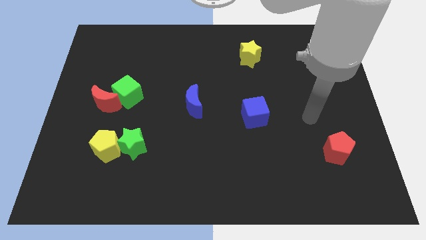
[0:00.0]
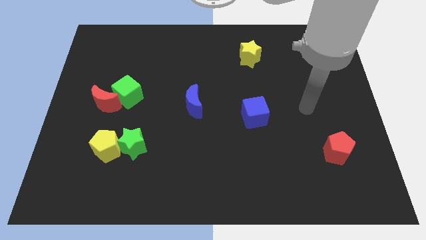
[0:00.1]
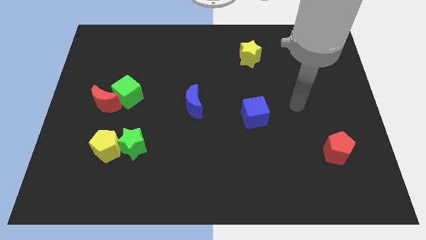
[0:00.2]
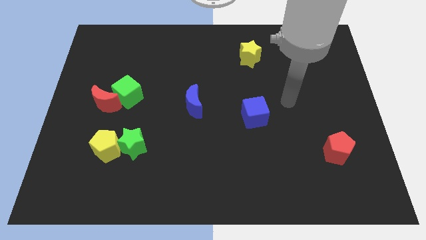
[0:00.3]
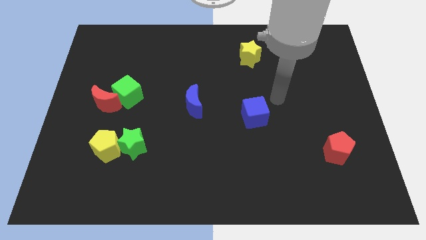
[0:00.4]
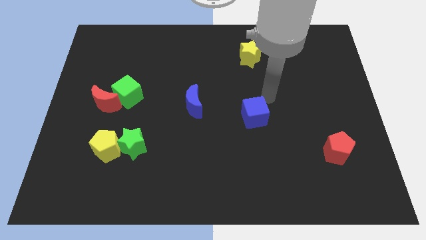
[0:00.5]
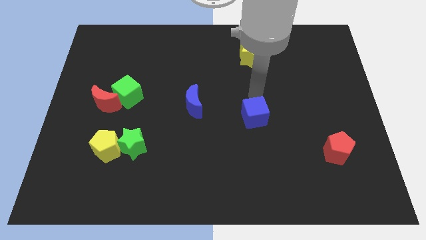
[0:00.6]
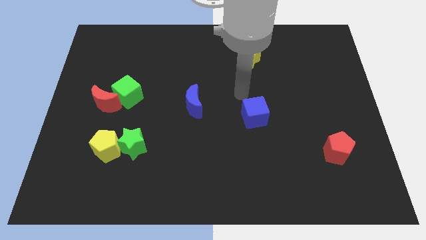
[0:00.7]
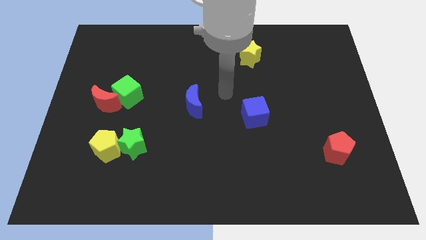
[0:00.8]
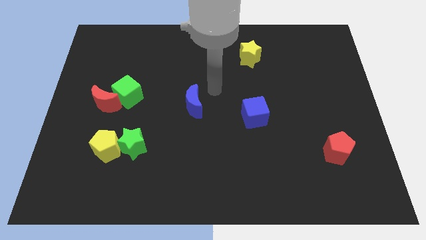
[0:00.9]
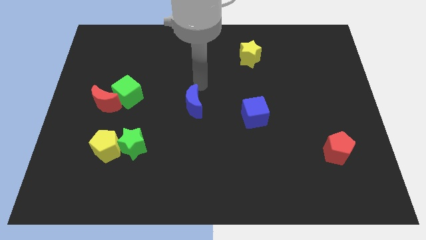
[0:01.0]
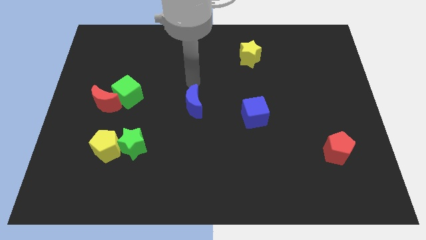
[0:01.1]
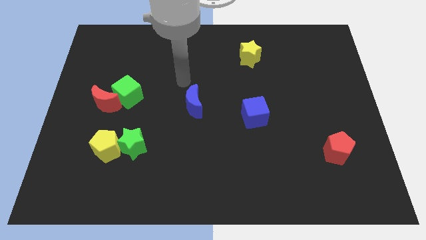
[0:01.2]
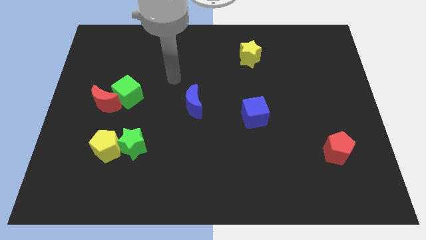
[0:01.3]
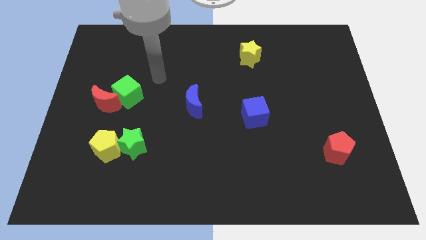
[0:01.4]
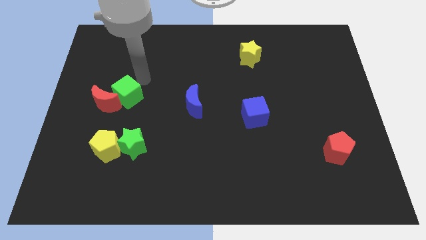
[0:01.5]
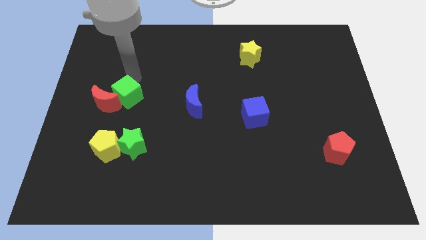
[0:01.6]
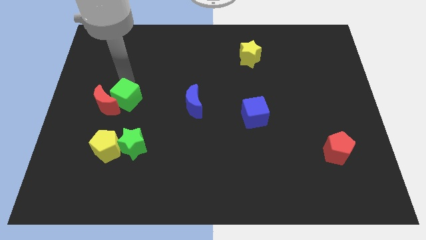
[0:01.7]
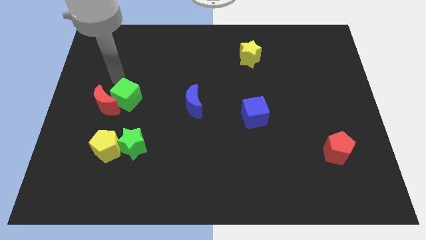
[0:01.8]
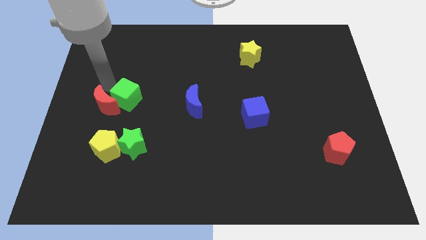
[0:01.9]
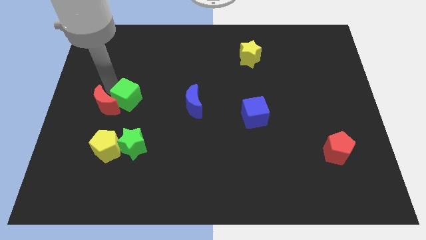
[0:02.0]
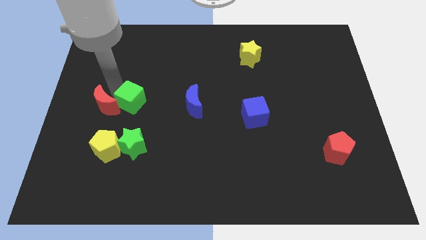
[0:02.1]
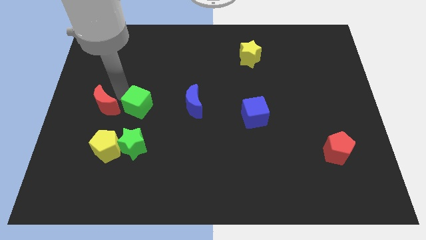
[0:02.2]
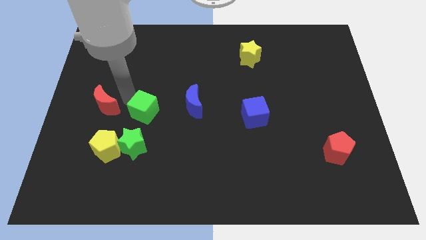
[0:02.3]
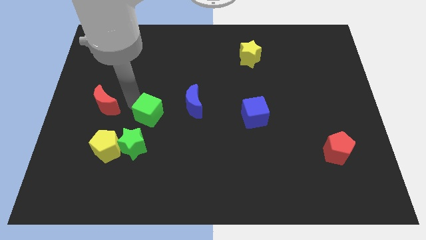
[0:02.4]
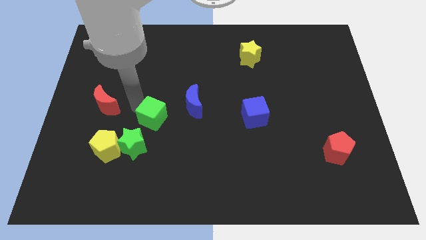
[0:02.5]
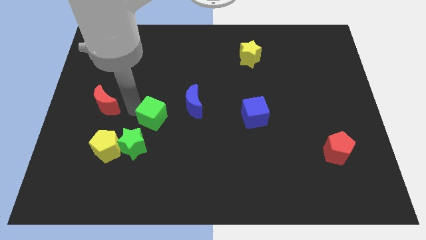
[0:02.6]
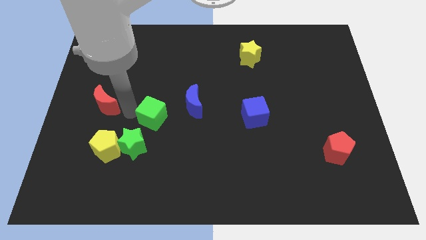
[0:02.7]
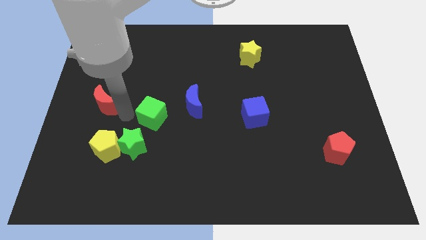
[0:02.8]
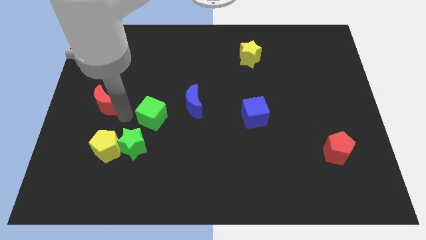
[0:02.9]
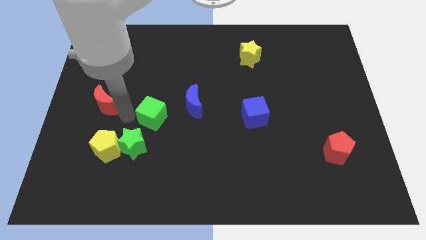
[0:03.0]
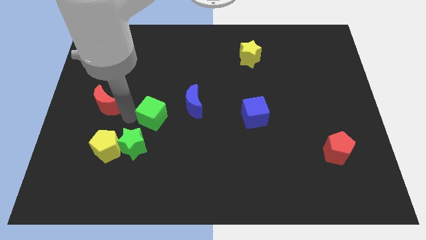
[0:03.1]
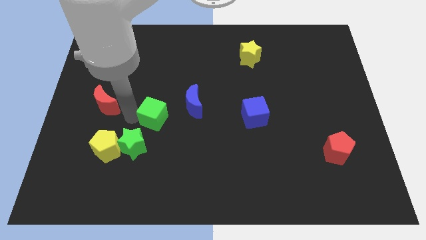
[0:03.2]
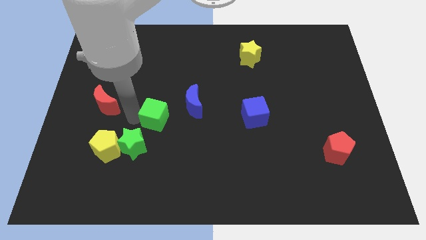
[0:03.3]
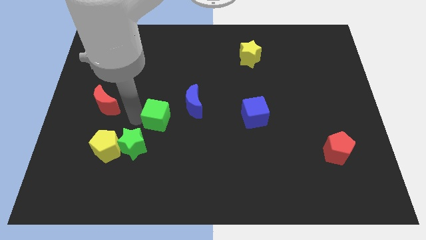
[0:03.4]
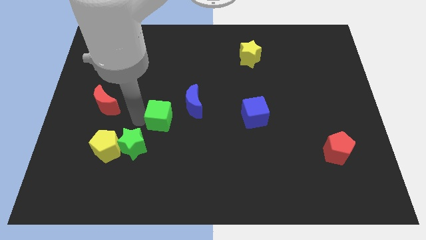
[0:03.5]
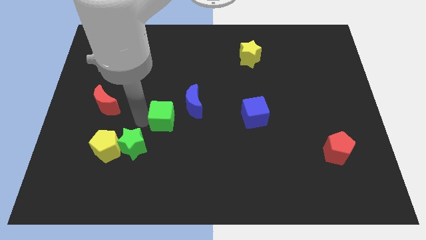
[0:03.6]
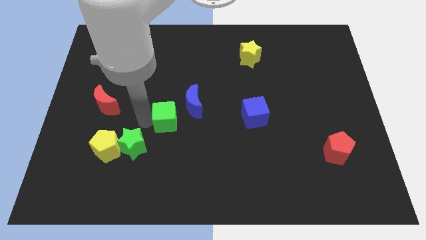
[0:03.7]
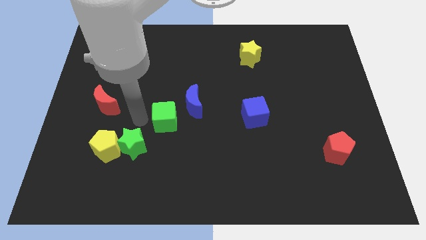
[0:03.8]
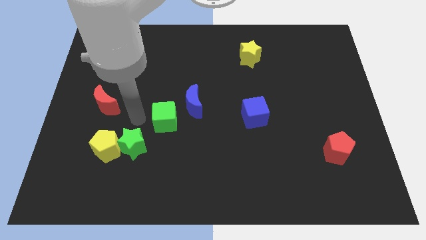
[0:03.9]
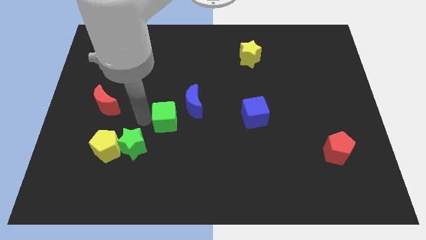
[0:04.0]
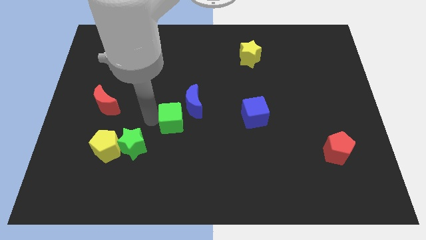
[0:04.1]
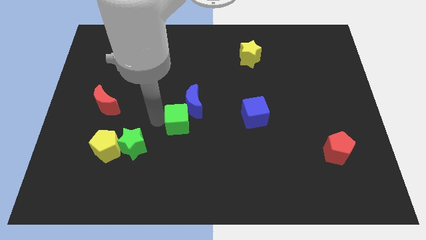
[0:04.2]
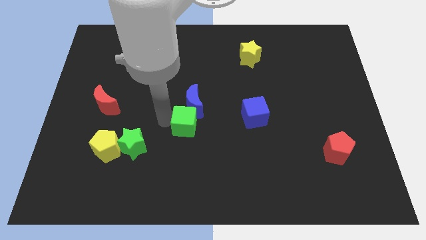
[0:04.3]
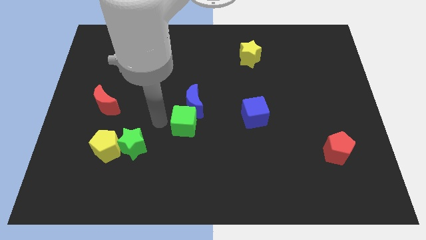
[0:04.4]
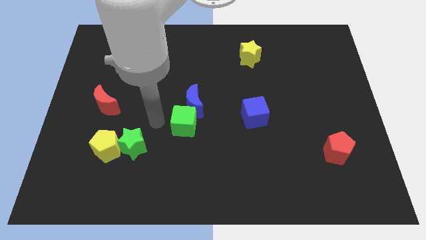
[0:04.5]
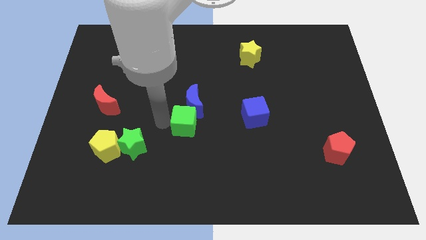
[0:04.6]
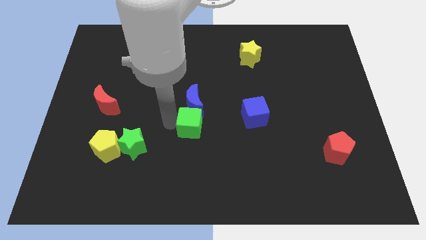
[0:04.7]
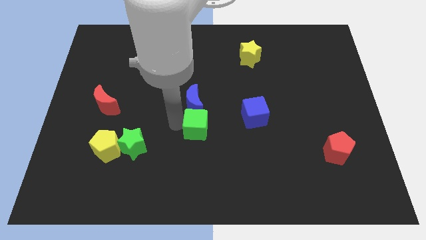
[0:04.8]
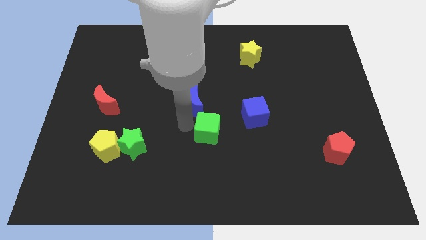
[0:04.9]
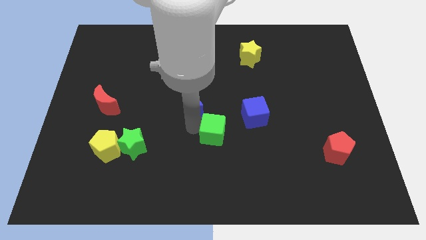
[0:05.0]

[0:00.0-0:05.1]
slide the green cube to the bottom left side of the blue cube

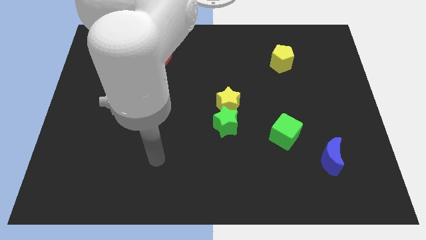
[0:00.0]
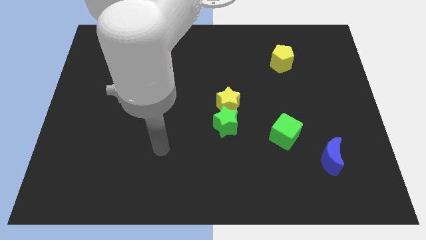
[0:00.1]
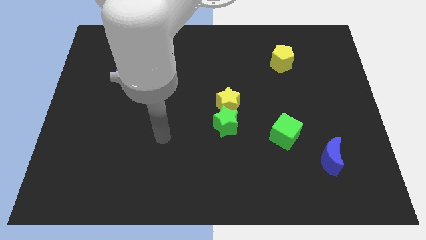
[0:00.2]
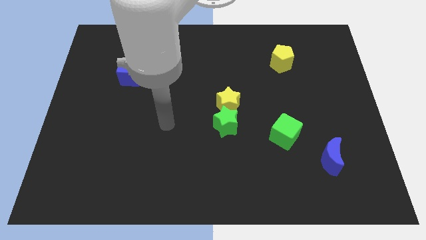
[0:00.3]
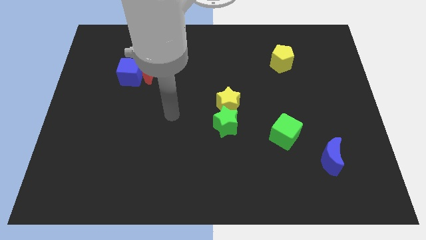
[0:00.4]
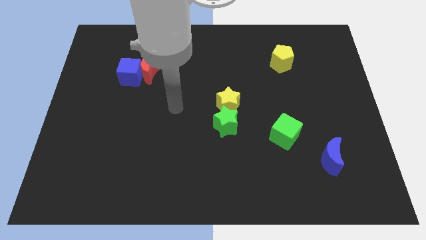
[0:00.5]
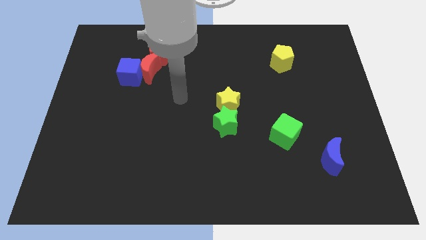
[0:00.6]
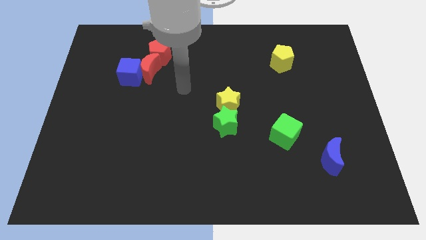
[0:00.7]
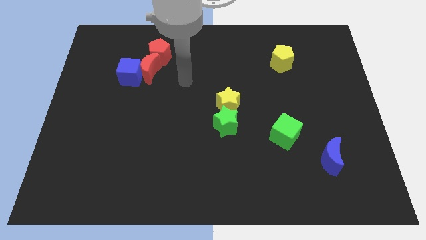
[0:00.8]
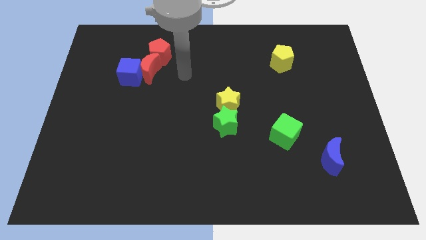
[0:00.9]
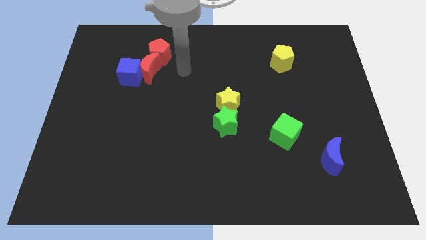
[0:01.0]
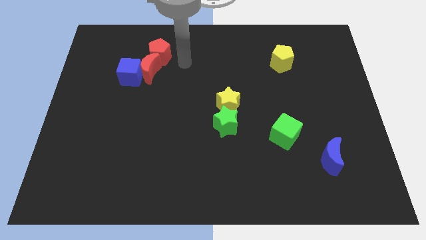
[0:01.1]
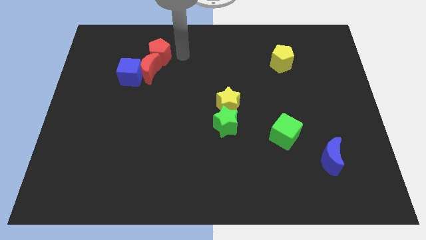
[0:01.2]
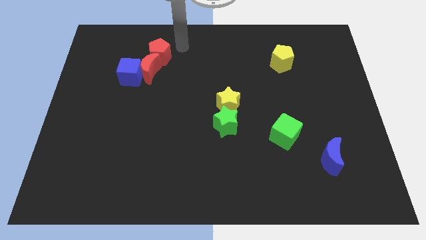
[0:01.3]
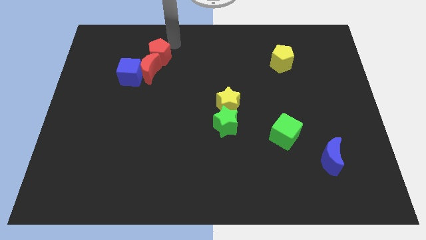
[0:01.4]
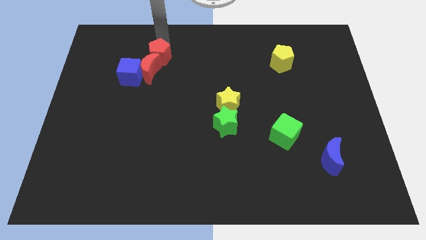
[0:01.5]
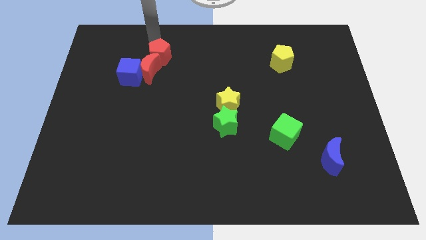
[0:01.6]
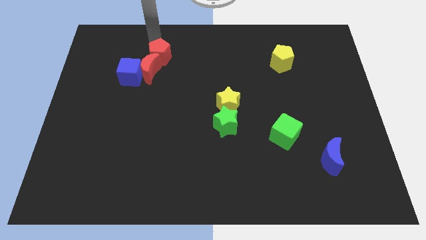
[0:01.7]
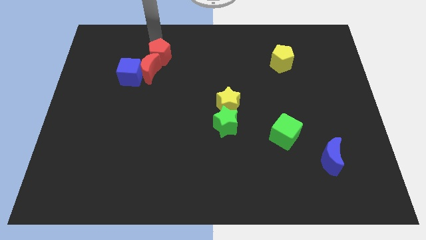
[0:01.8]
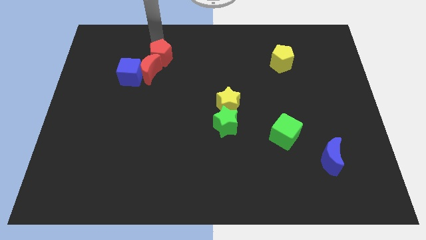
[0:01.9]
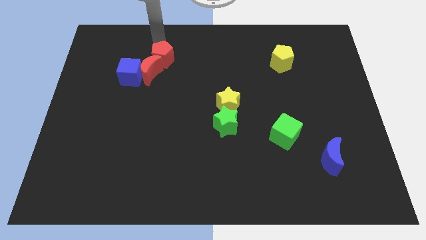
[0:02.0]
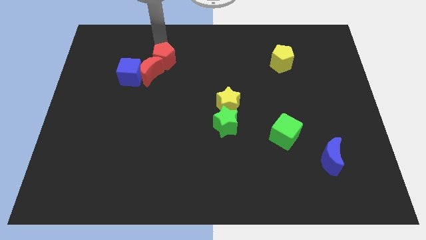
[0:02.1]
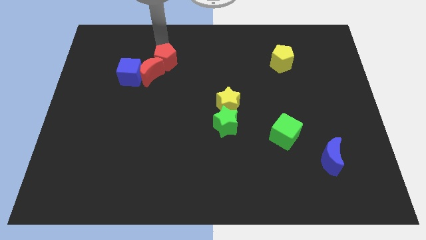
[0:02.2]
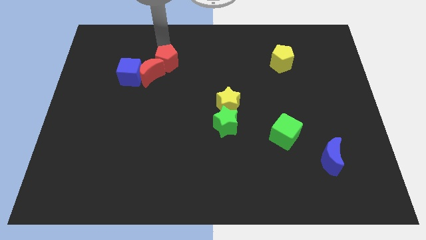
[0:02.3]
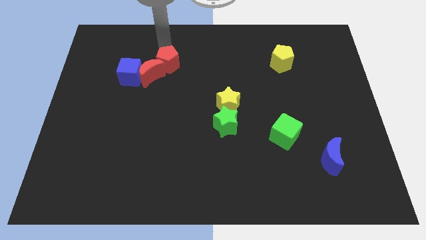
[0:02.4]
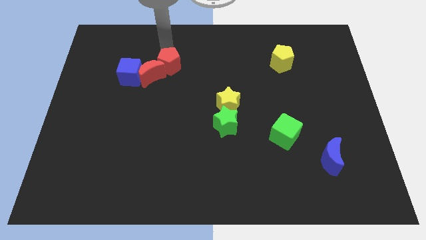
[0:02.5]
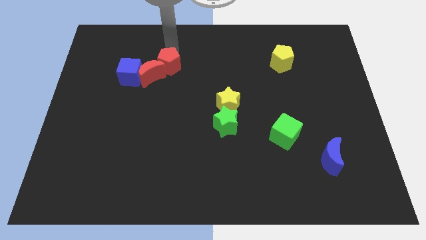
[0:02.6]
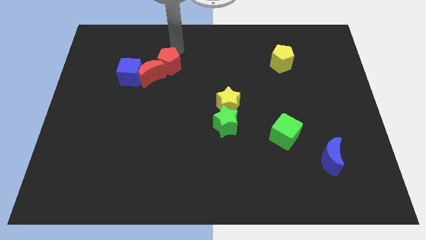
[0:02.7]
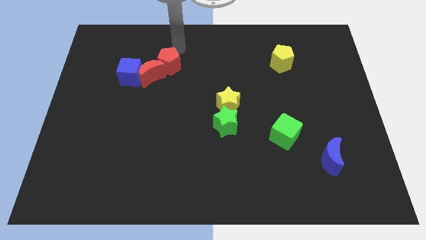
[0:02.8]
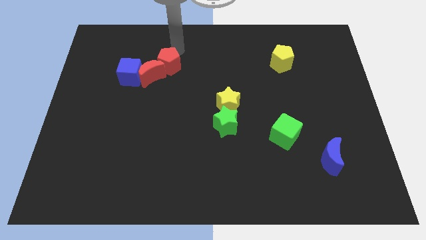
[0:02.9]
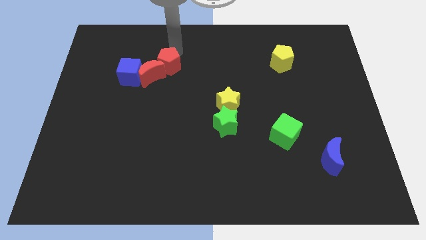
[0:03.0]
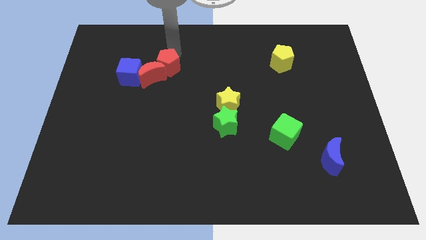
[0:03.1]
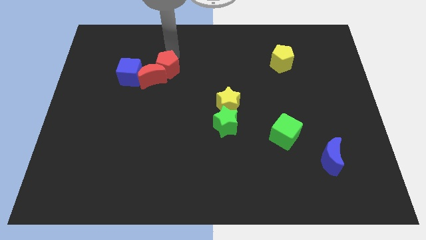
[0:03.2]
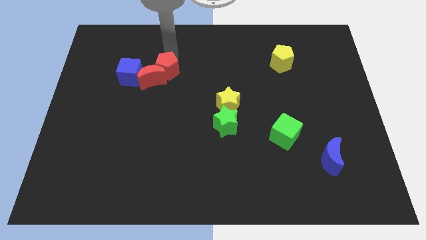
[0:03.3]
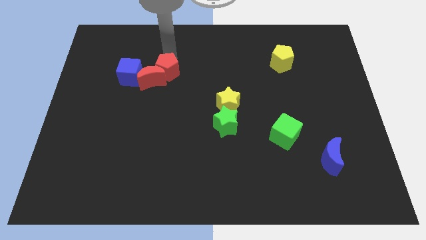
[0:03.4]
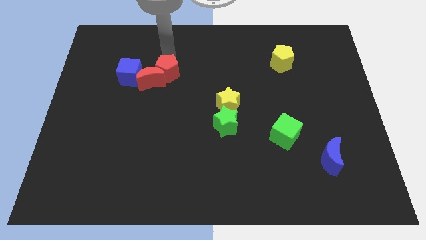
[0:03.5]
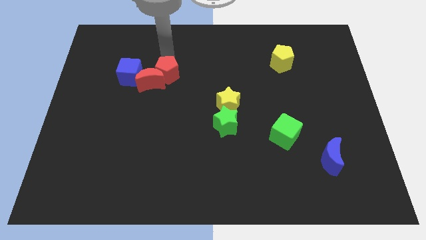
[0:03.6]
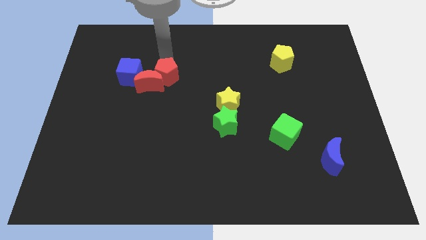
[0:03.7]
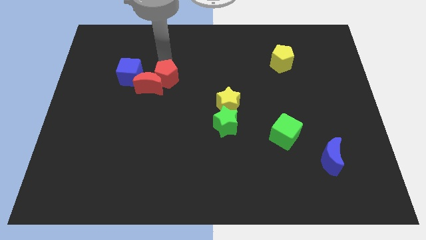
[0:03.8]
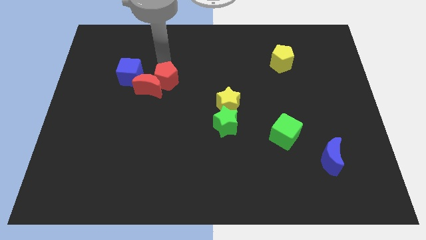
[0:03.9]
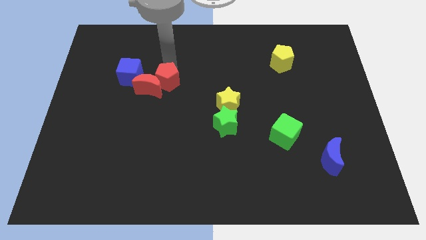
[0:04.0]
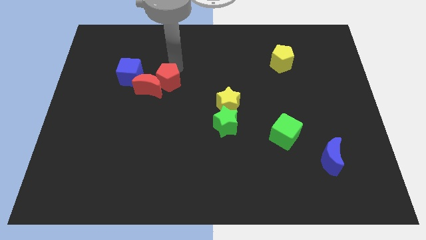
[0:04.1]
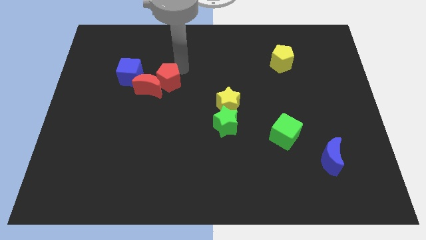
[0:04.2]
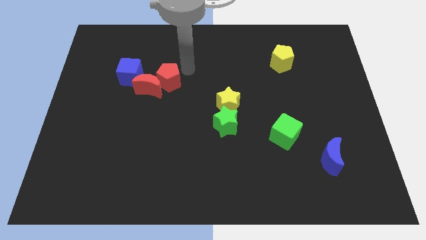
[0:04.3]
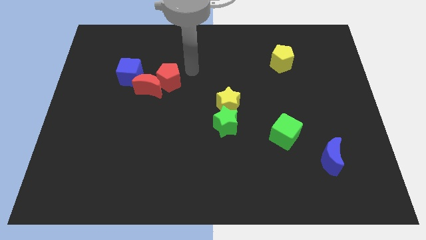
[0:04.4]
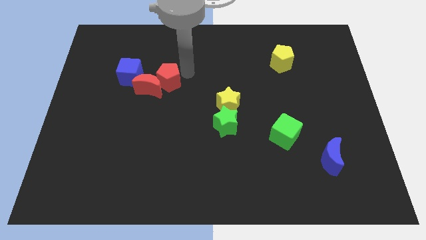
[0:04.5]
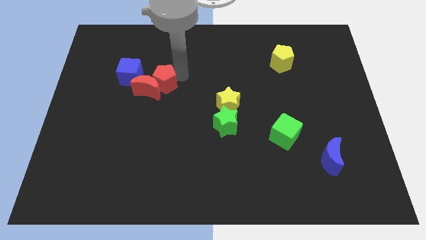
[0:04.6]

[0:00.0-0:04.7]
slide the red pentagon to the bottom right side of the blue cube
